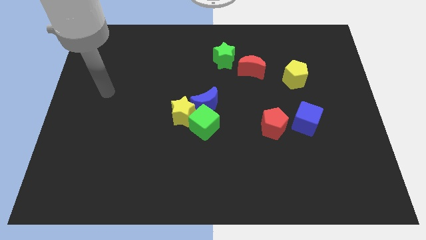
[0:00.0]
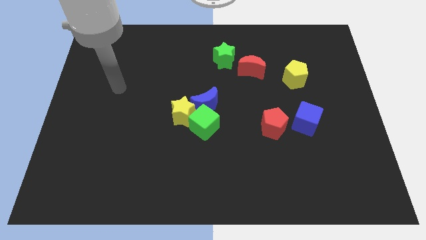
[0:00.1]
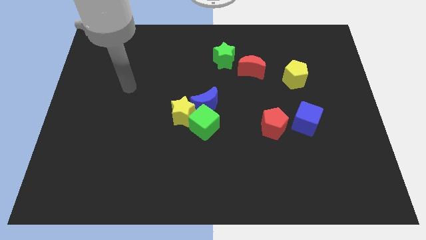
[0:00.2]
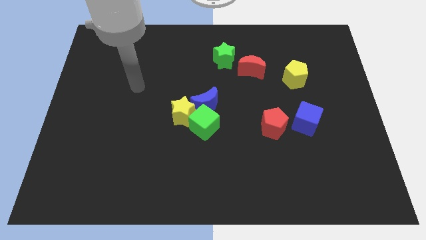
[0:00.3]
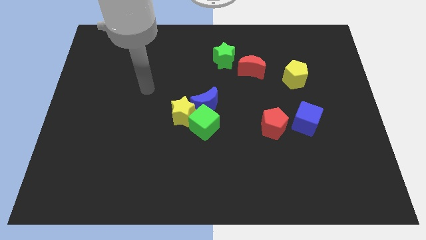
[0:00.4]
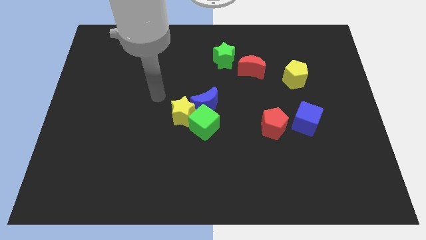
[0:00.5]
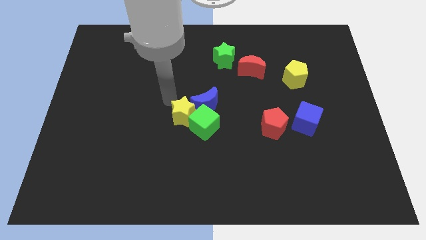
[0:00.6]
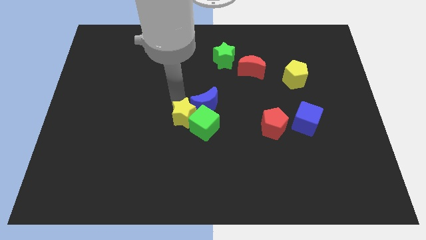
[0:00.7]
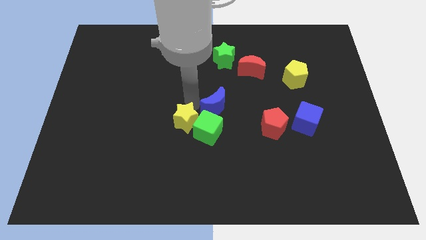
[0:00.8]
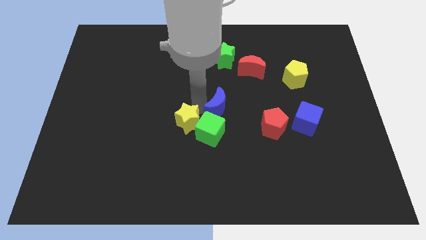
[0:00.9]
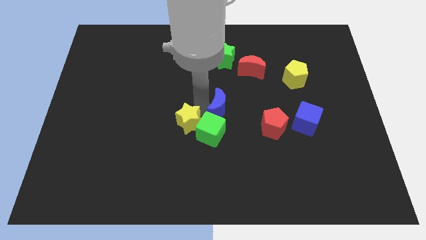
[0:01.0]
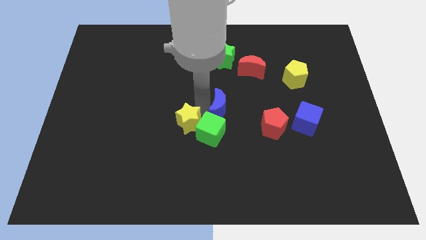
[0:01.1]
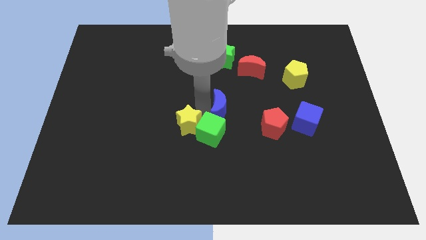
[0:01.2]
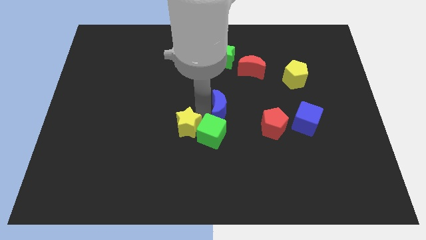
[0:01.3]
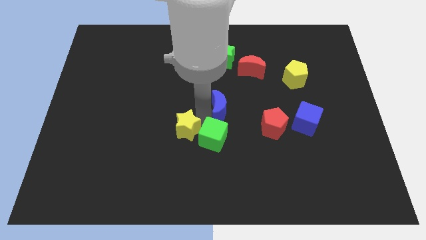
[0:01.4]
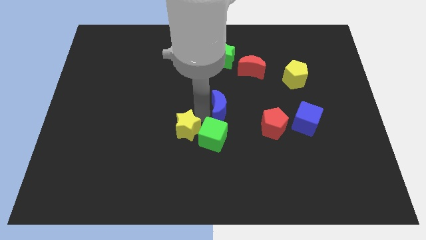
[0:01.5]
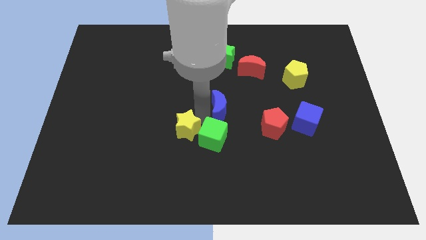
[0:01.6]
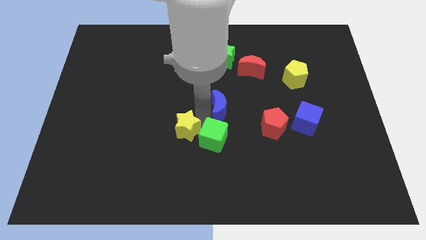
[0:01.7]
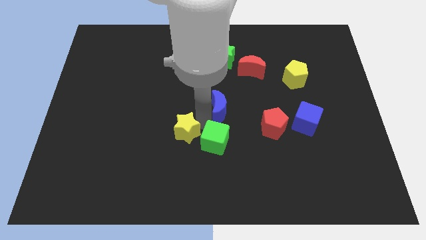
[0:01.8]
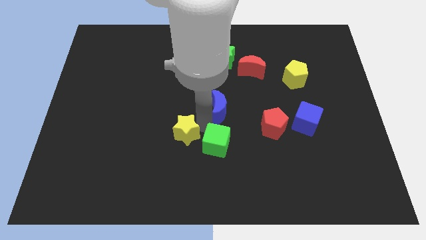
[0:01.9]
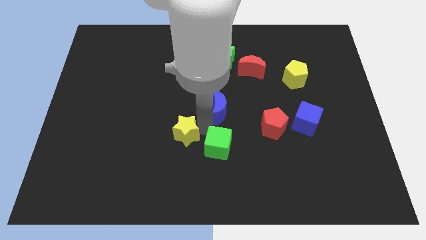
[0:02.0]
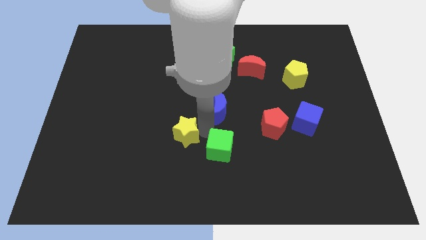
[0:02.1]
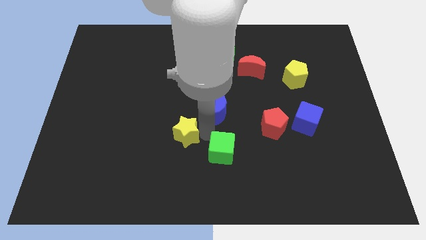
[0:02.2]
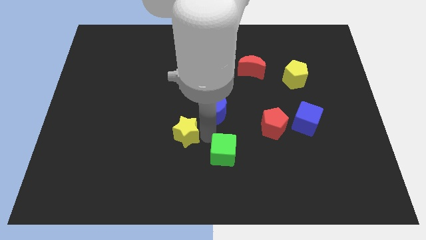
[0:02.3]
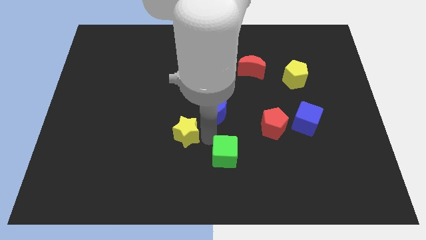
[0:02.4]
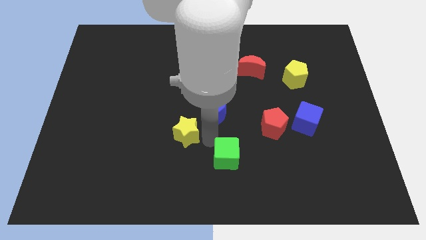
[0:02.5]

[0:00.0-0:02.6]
pull the green cube apart from the yellow star and blue moon

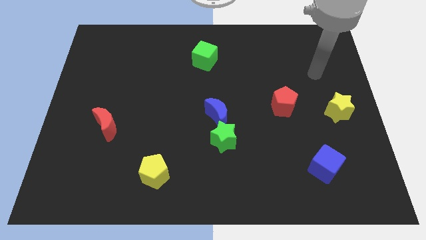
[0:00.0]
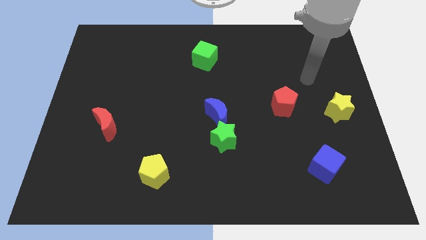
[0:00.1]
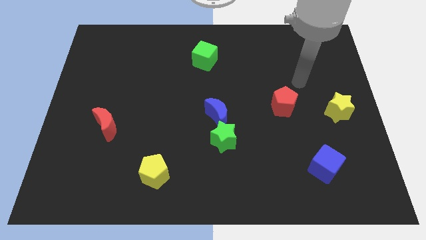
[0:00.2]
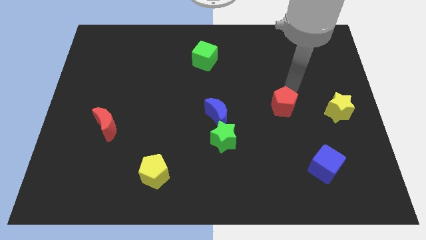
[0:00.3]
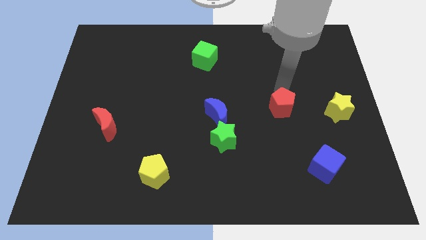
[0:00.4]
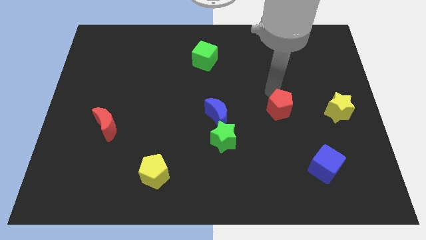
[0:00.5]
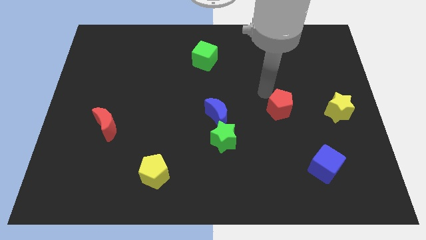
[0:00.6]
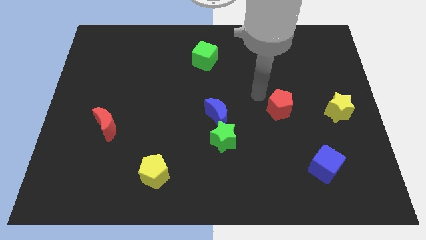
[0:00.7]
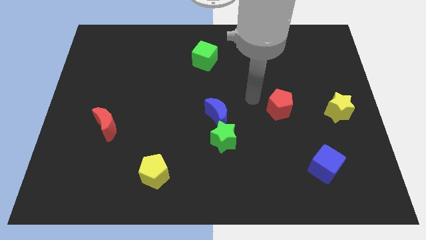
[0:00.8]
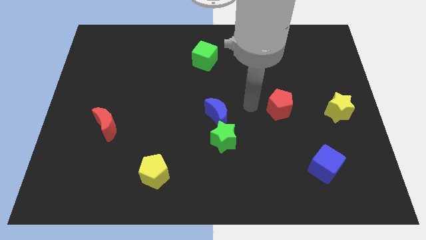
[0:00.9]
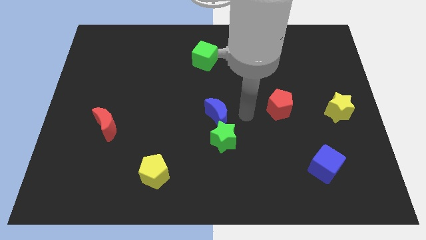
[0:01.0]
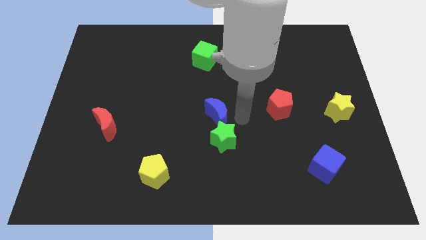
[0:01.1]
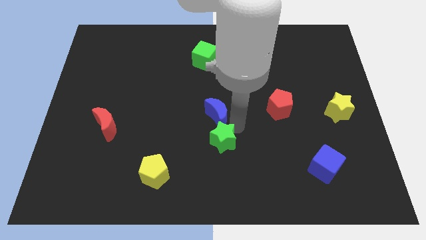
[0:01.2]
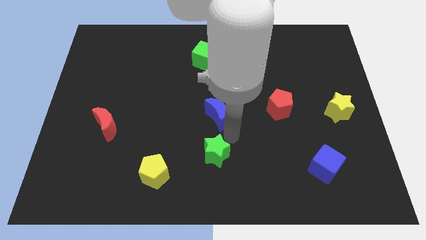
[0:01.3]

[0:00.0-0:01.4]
separate the blue moon from the green star

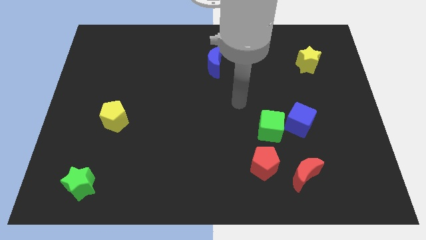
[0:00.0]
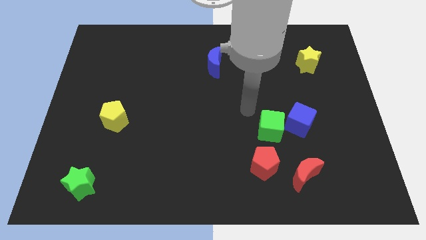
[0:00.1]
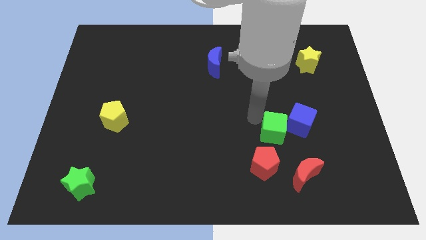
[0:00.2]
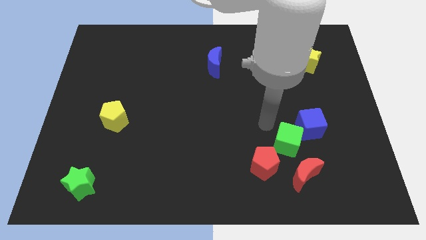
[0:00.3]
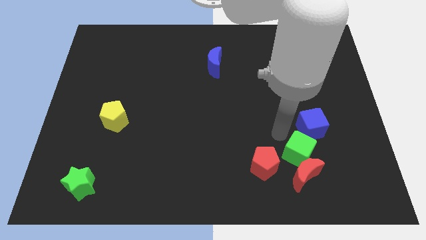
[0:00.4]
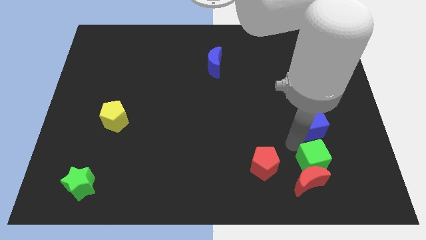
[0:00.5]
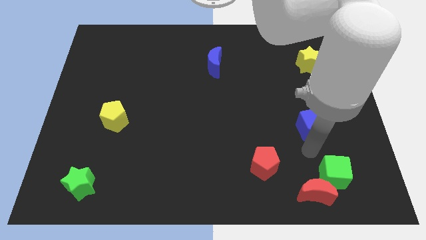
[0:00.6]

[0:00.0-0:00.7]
pull the blue cube apart from the green cube

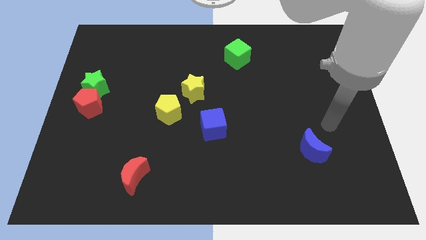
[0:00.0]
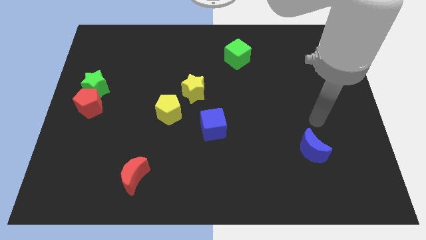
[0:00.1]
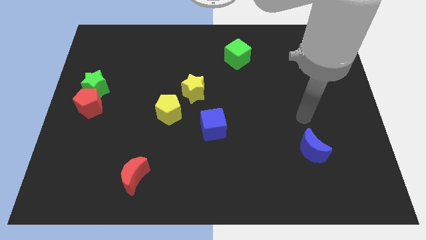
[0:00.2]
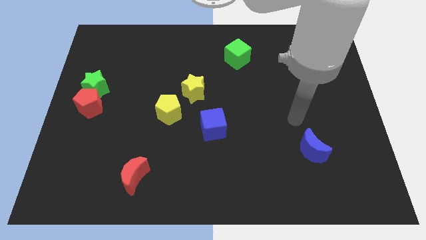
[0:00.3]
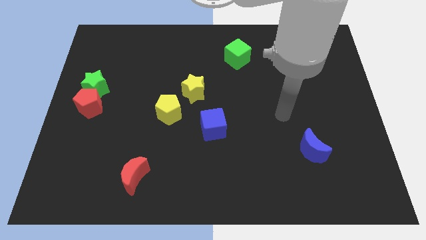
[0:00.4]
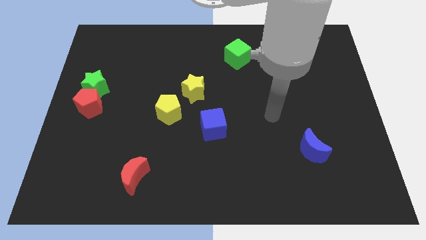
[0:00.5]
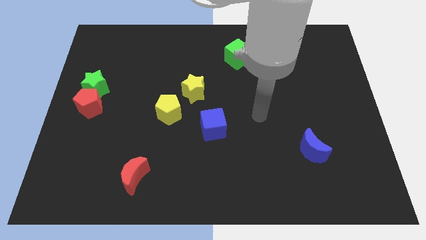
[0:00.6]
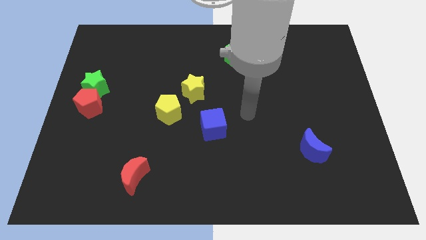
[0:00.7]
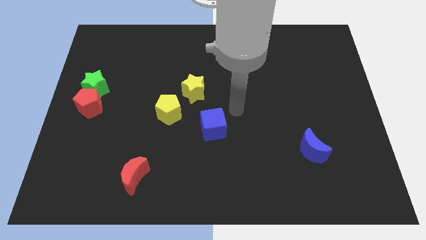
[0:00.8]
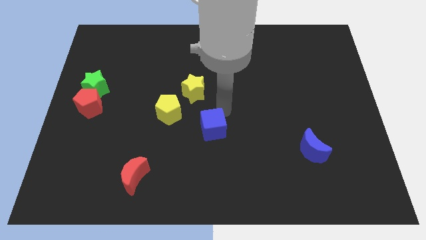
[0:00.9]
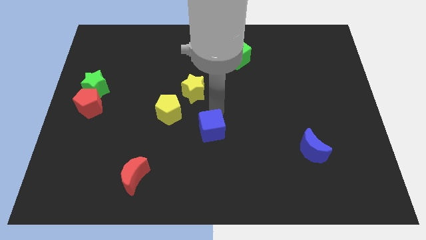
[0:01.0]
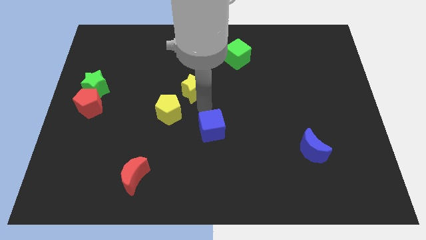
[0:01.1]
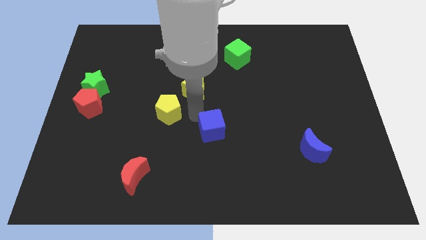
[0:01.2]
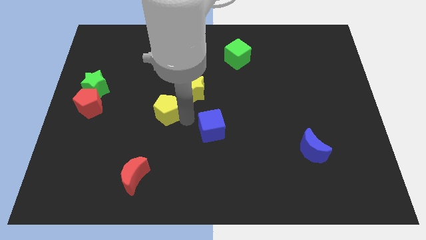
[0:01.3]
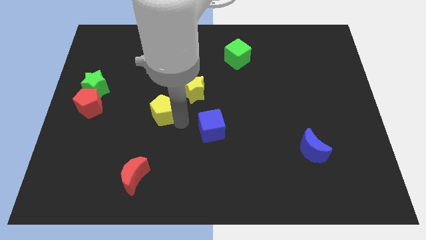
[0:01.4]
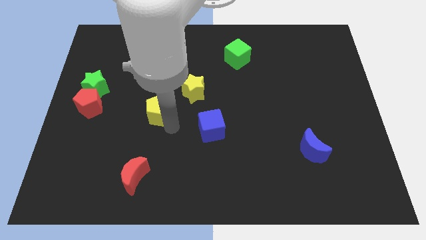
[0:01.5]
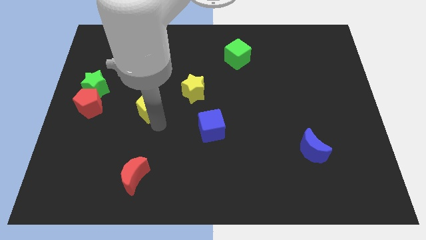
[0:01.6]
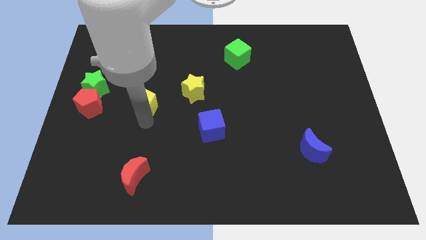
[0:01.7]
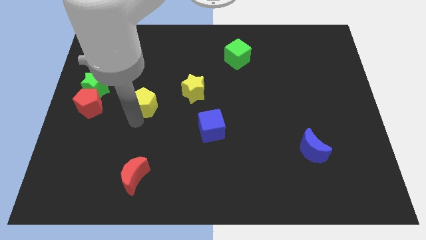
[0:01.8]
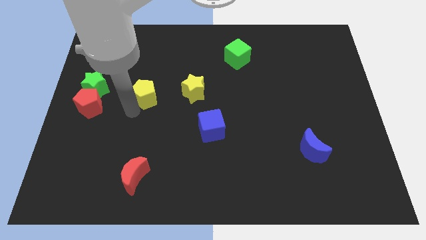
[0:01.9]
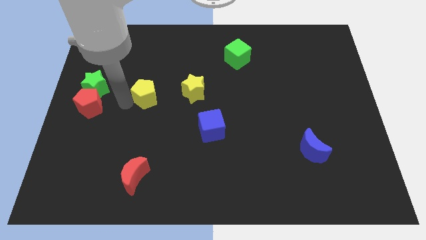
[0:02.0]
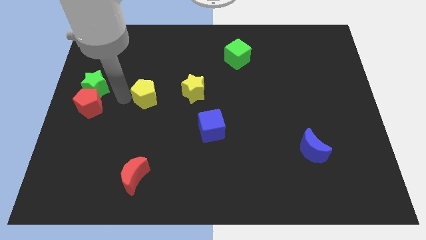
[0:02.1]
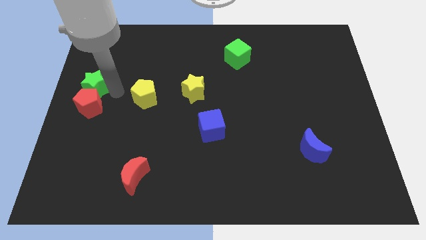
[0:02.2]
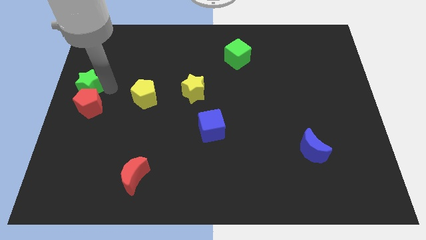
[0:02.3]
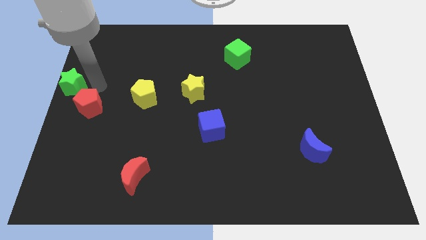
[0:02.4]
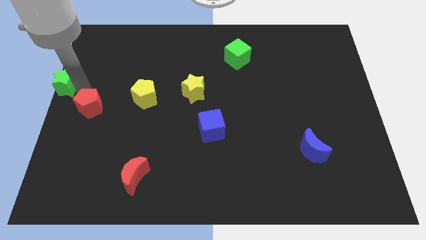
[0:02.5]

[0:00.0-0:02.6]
move the red pentagon away from the green star

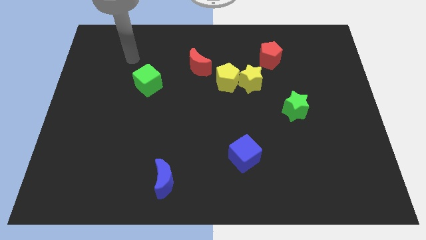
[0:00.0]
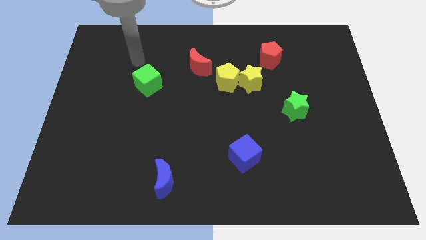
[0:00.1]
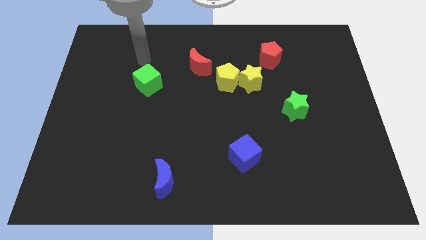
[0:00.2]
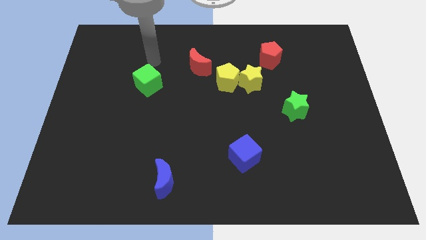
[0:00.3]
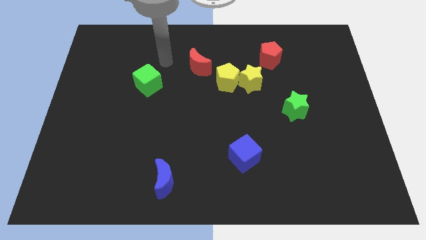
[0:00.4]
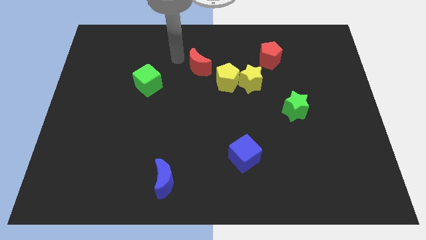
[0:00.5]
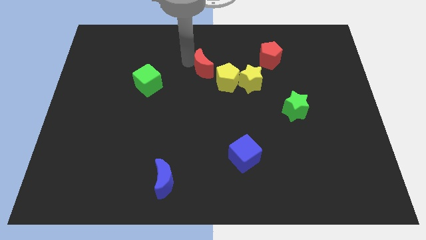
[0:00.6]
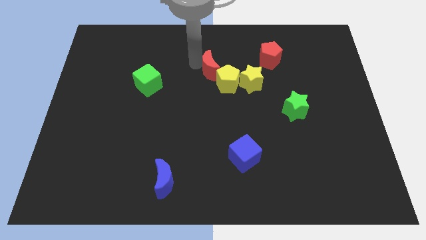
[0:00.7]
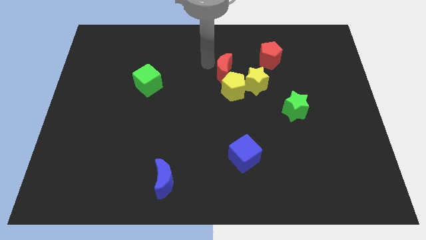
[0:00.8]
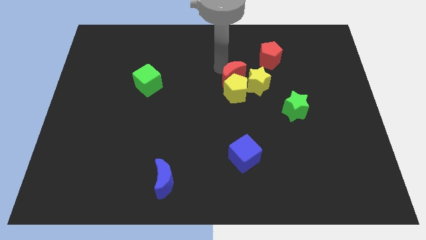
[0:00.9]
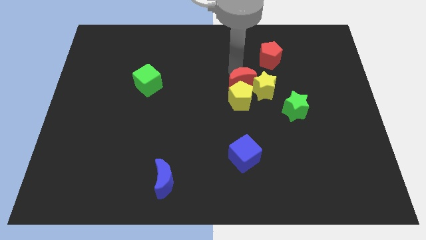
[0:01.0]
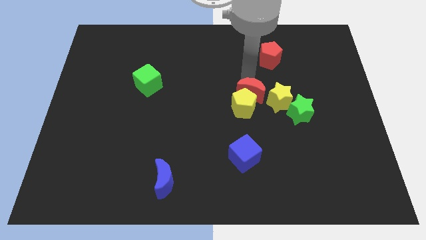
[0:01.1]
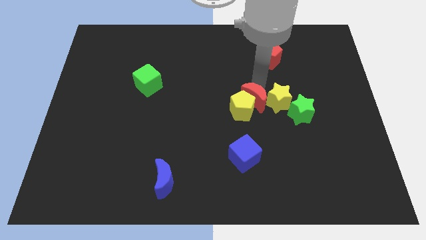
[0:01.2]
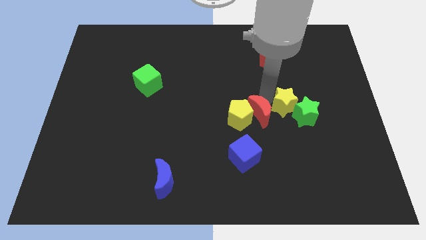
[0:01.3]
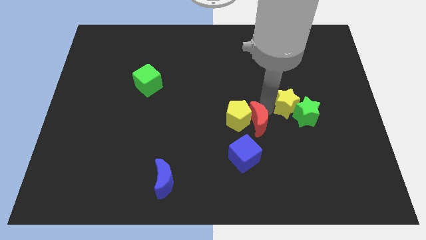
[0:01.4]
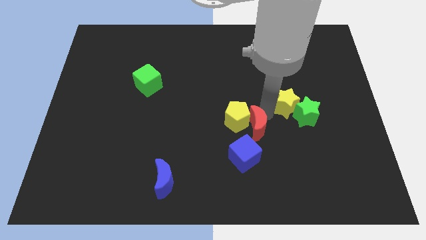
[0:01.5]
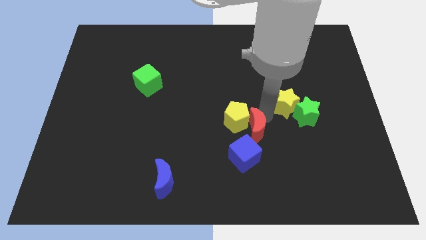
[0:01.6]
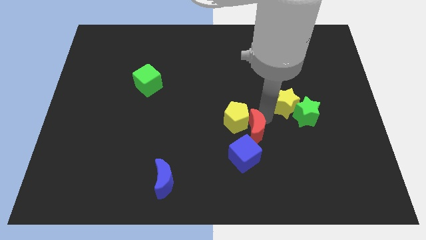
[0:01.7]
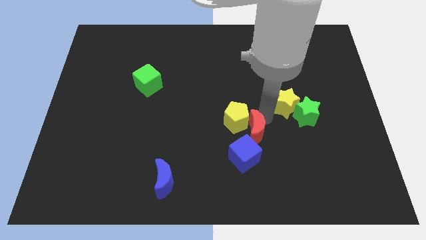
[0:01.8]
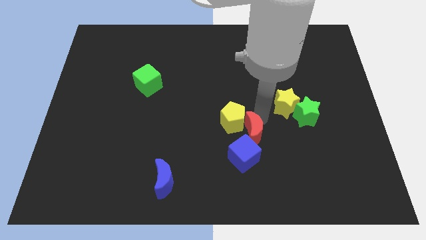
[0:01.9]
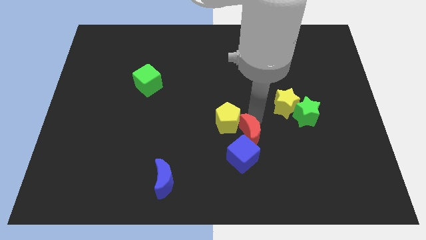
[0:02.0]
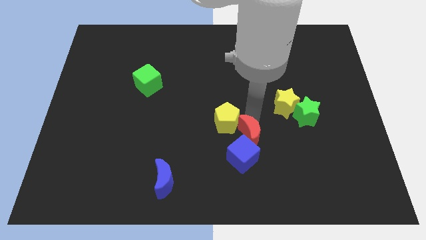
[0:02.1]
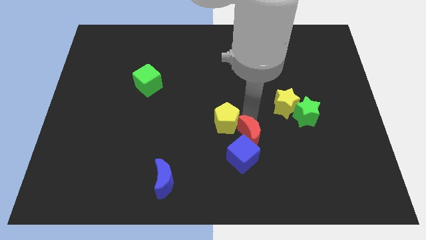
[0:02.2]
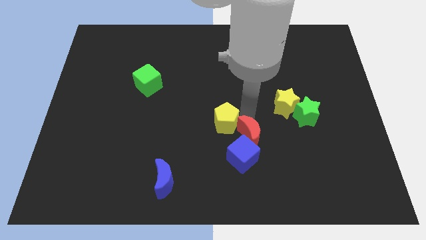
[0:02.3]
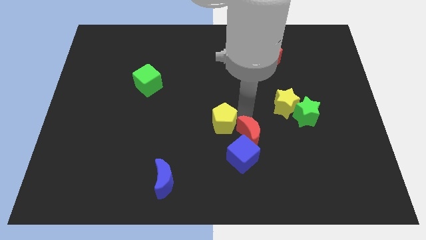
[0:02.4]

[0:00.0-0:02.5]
move the yellow pentagon away from the yellow star and red moon
